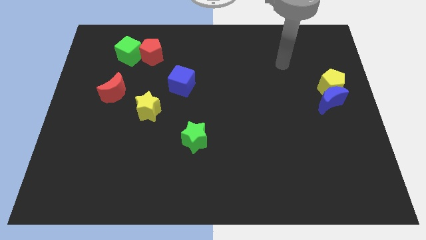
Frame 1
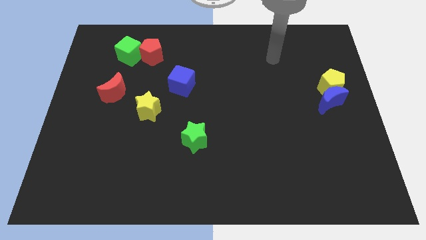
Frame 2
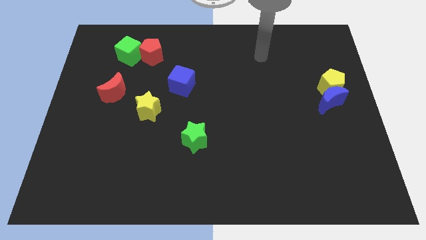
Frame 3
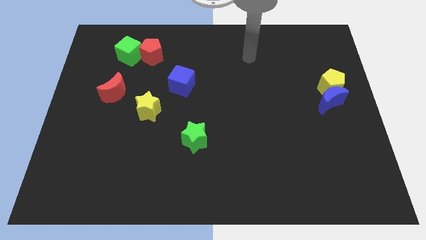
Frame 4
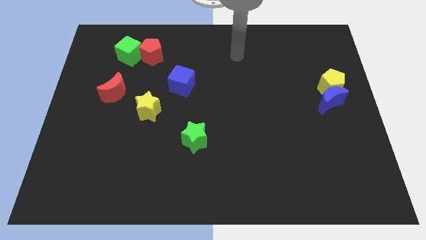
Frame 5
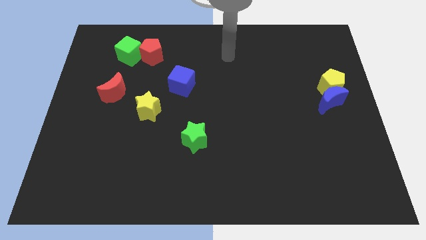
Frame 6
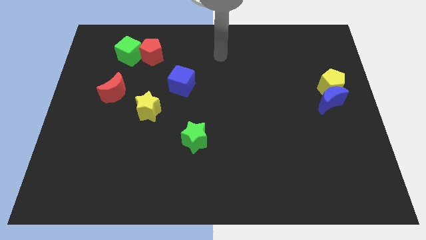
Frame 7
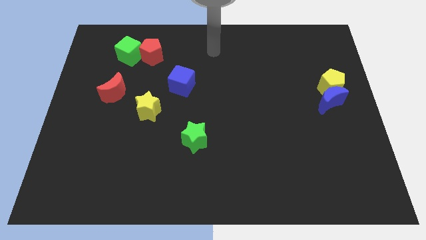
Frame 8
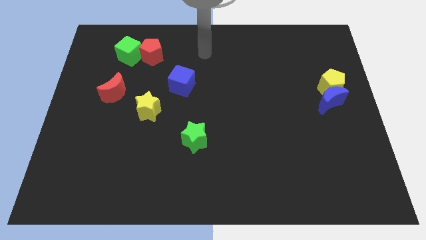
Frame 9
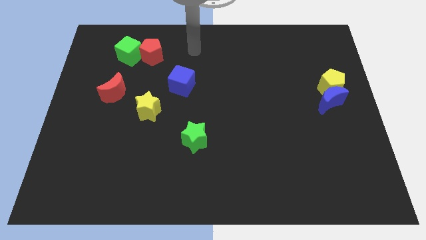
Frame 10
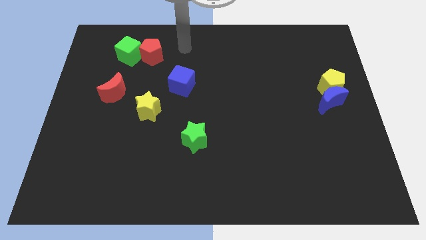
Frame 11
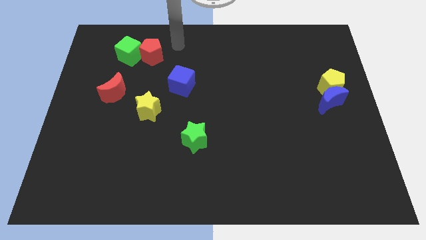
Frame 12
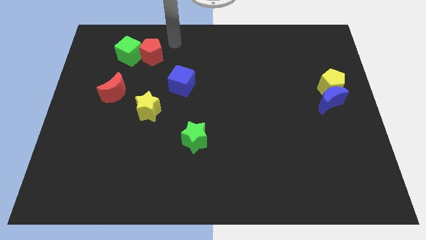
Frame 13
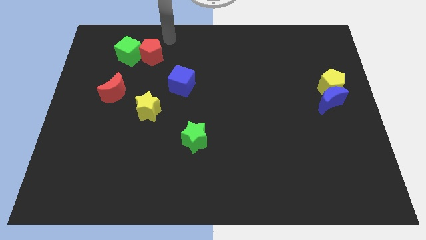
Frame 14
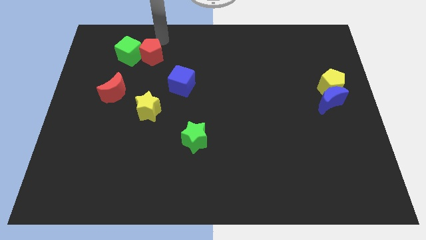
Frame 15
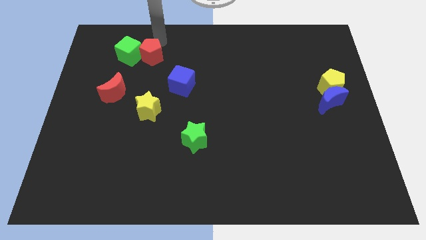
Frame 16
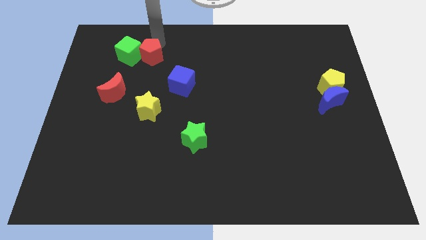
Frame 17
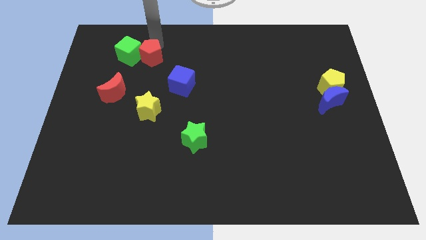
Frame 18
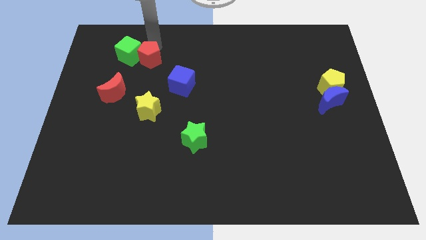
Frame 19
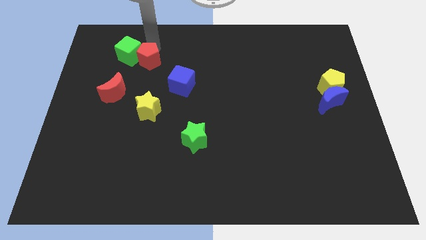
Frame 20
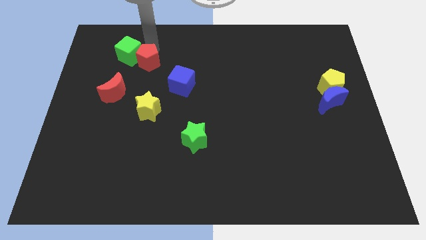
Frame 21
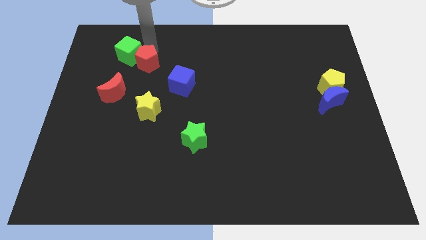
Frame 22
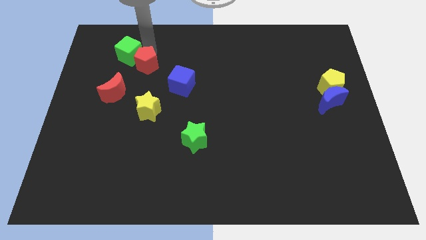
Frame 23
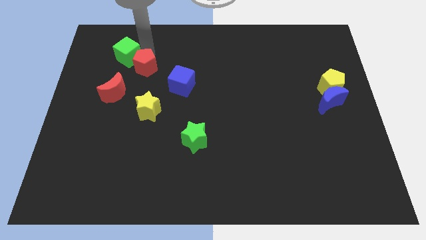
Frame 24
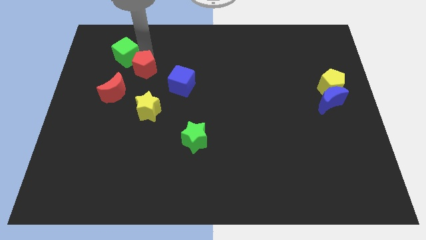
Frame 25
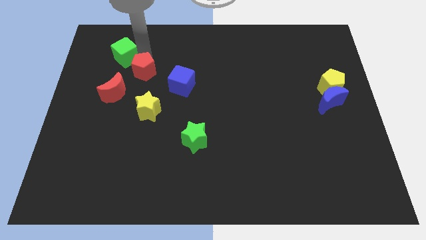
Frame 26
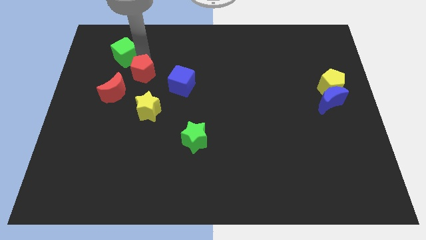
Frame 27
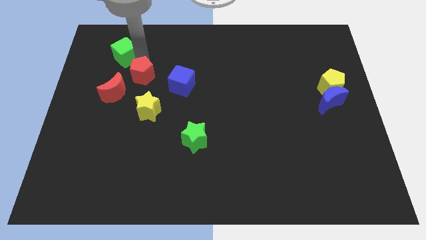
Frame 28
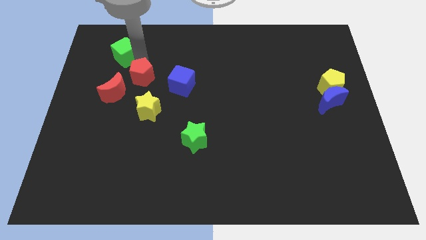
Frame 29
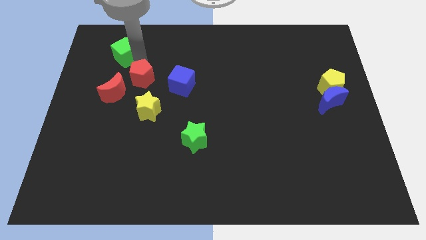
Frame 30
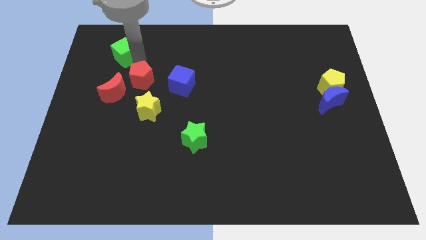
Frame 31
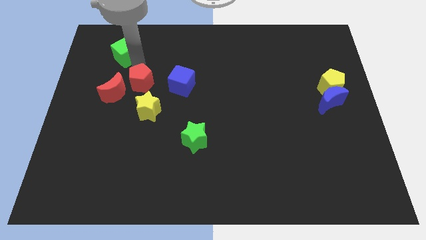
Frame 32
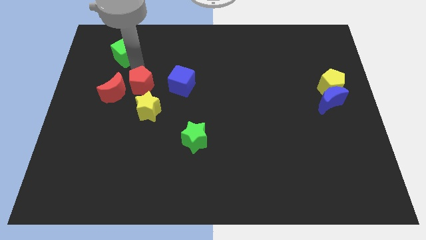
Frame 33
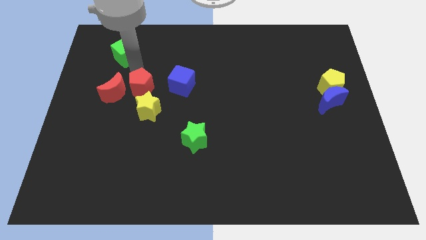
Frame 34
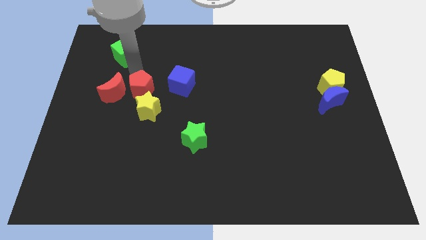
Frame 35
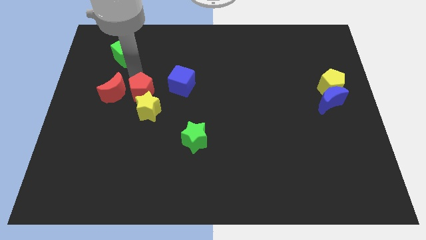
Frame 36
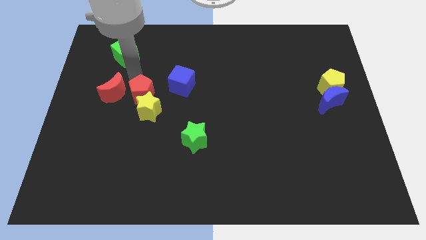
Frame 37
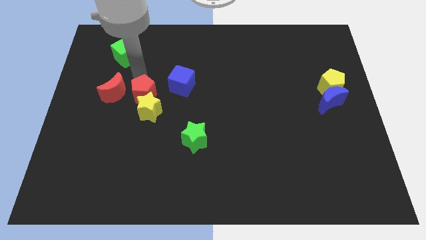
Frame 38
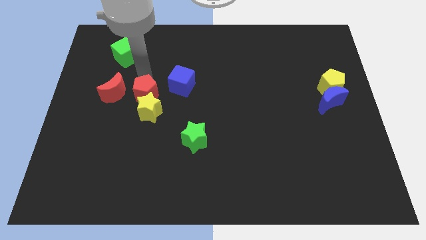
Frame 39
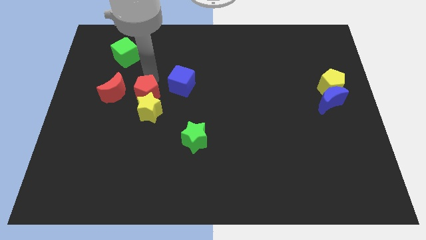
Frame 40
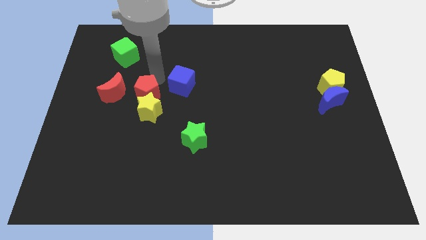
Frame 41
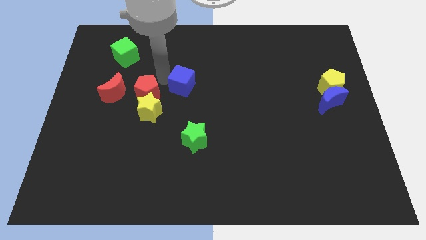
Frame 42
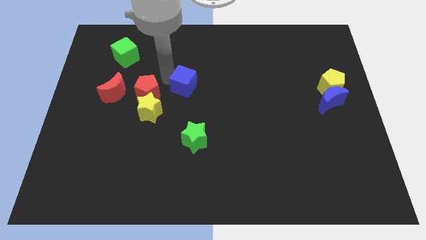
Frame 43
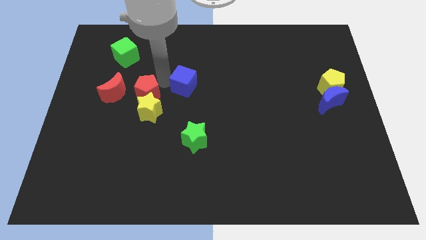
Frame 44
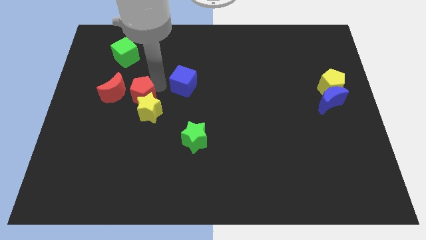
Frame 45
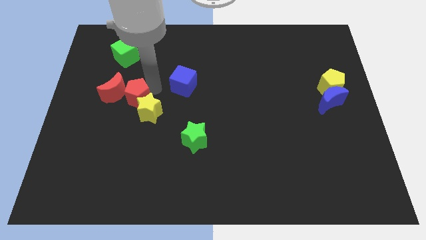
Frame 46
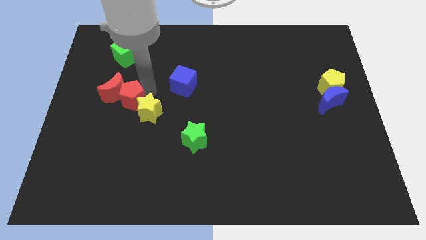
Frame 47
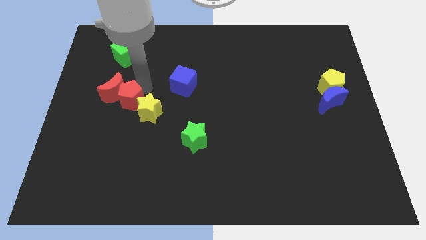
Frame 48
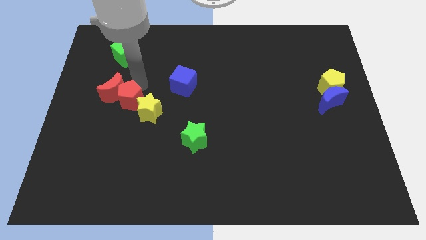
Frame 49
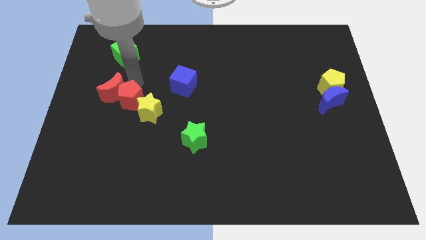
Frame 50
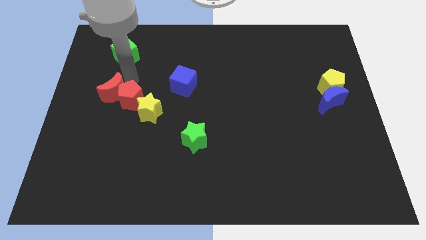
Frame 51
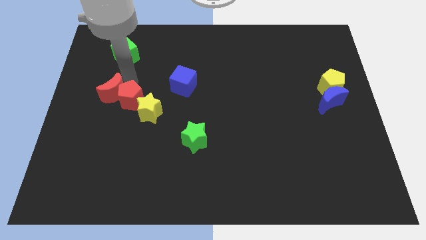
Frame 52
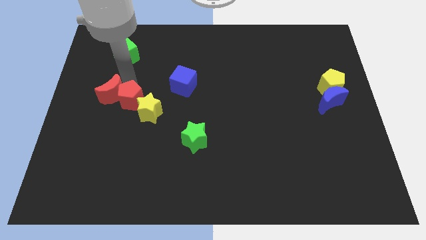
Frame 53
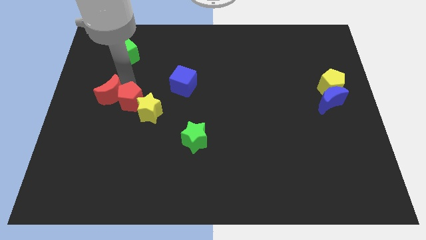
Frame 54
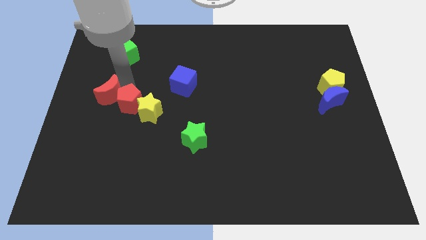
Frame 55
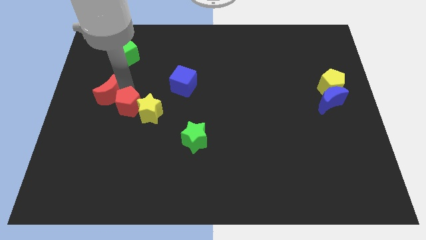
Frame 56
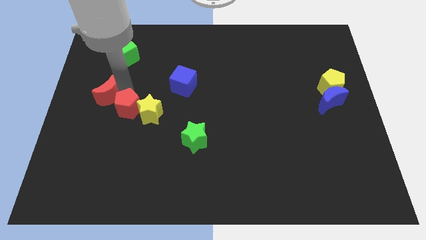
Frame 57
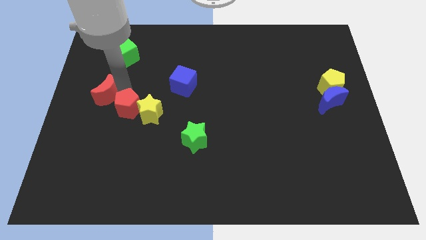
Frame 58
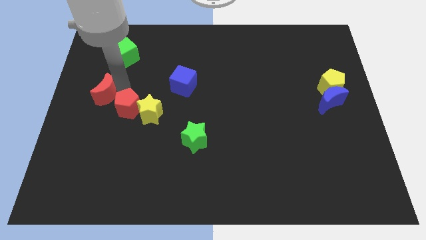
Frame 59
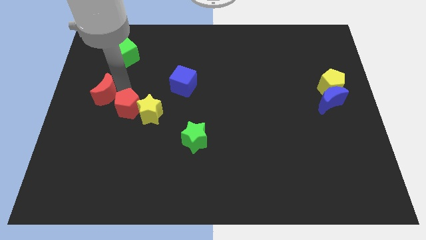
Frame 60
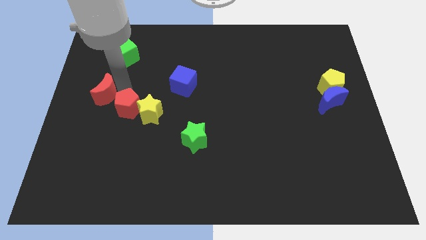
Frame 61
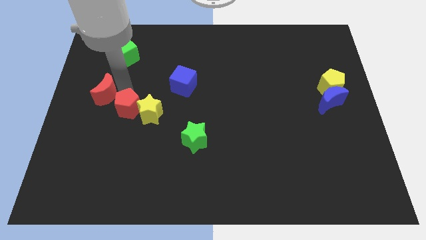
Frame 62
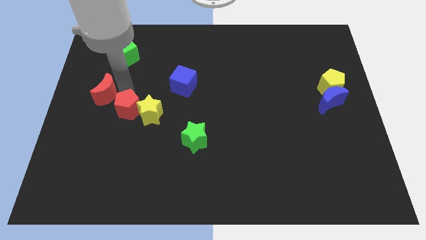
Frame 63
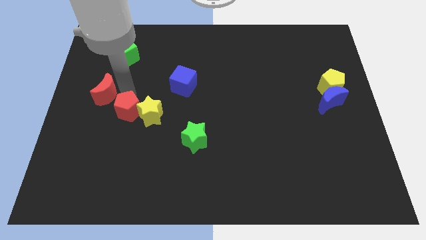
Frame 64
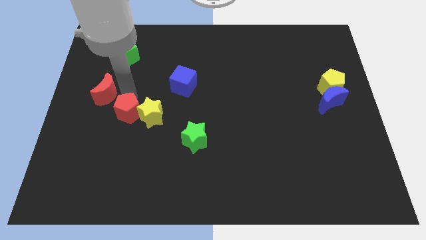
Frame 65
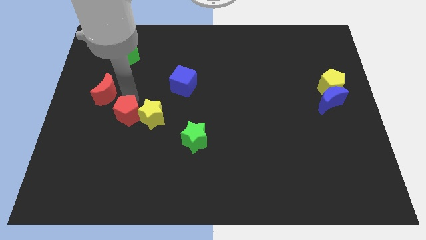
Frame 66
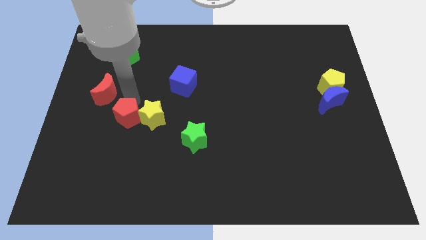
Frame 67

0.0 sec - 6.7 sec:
slide the red pentagon down

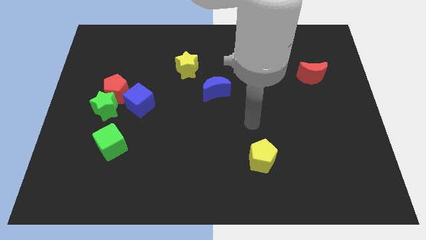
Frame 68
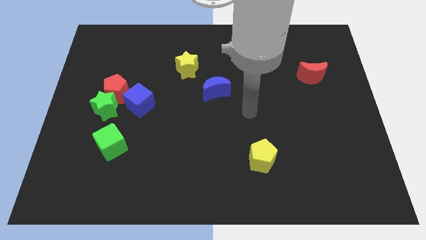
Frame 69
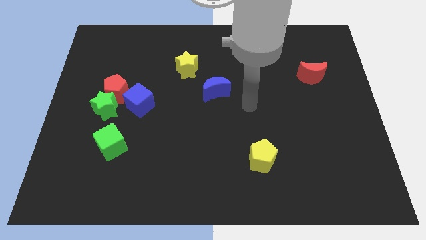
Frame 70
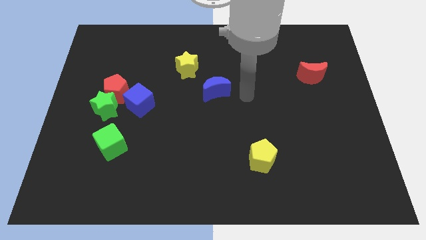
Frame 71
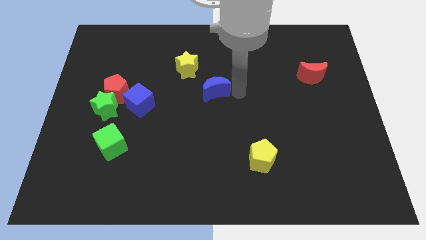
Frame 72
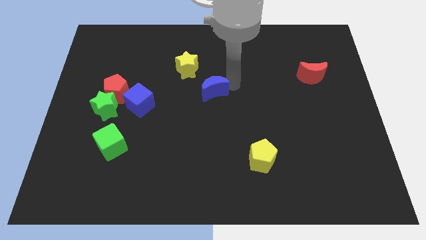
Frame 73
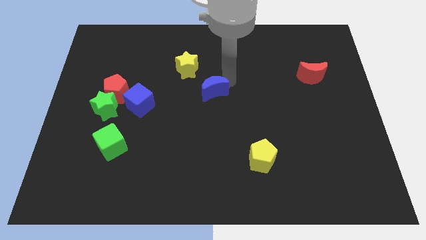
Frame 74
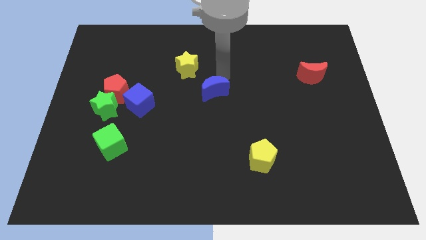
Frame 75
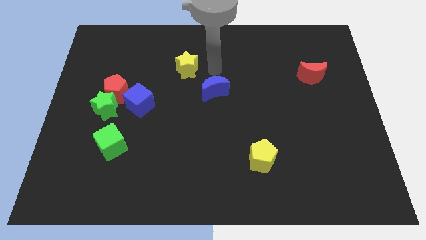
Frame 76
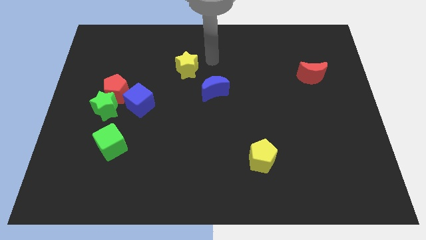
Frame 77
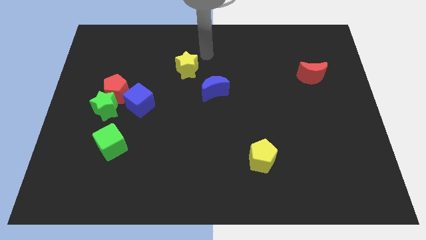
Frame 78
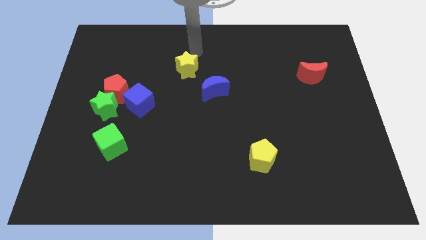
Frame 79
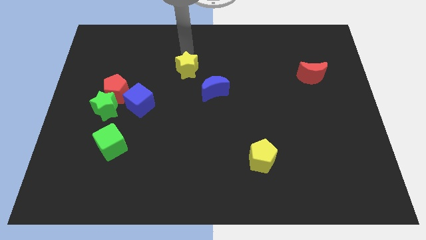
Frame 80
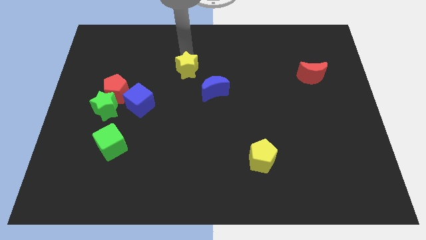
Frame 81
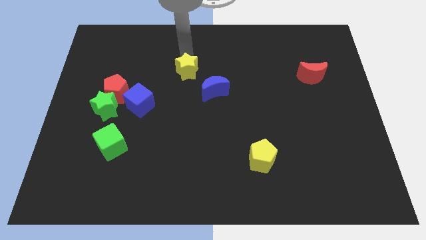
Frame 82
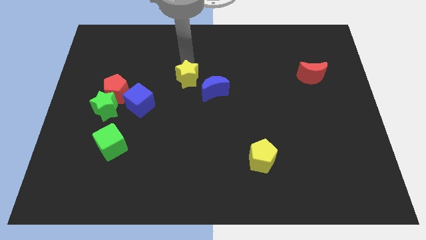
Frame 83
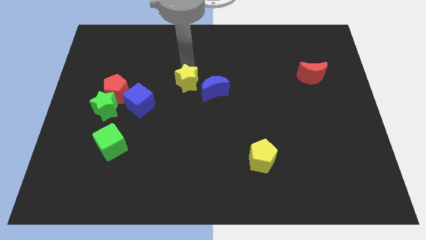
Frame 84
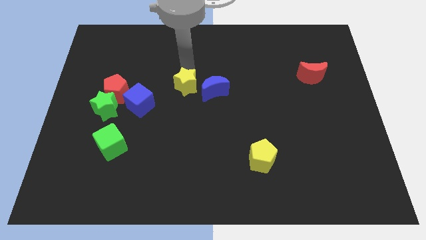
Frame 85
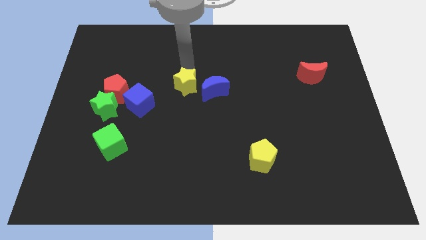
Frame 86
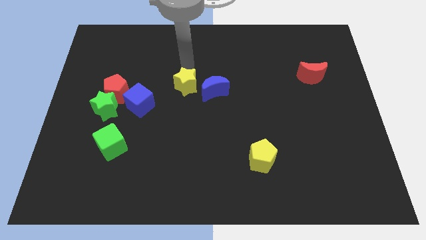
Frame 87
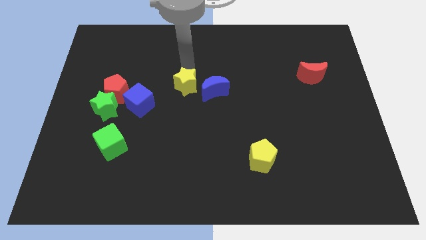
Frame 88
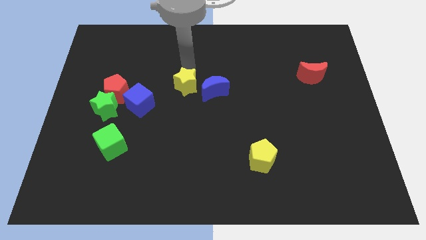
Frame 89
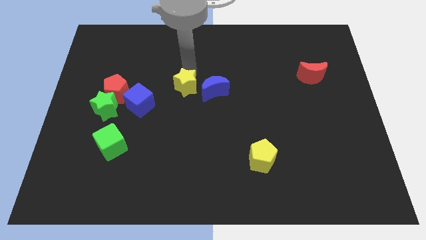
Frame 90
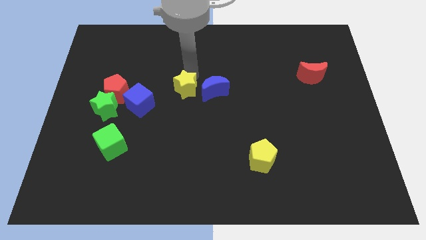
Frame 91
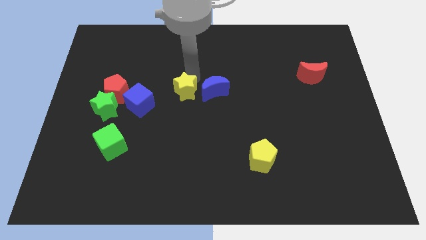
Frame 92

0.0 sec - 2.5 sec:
move the yellow star slightly downwards
